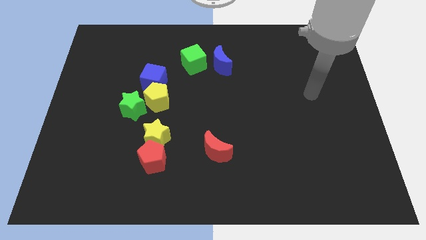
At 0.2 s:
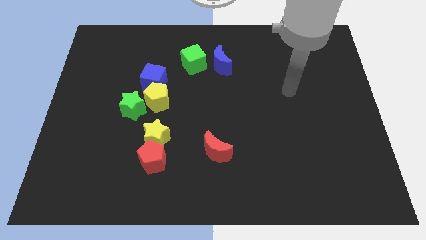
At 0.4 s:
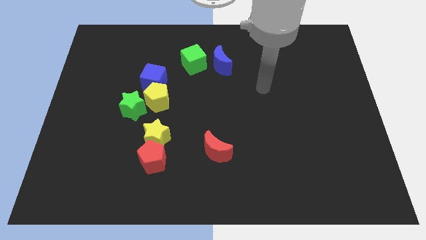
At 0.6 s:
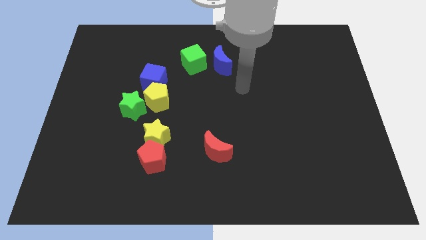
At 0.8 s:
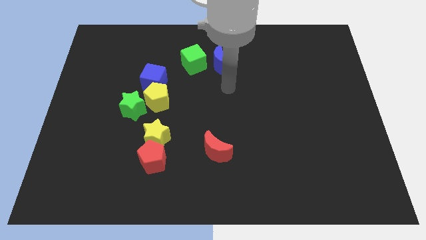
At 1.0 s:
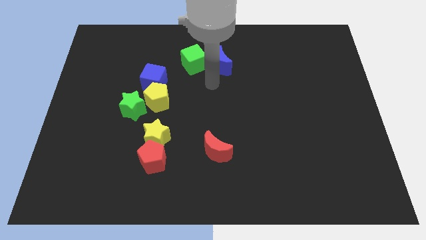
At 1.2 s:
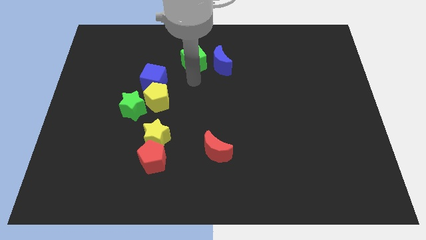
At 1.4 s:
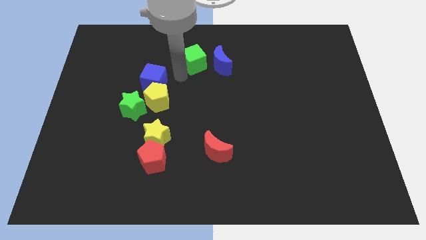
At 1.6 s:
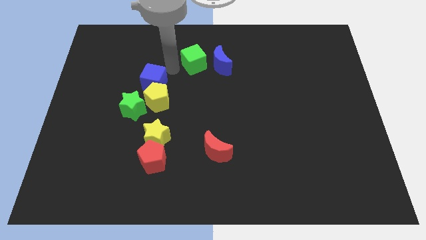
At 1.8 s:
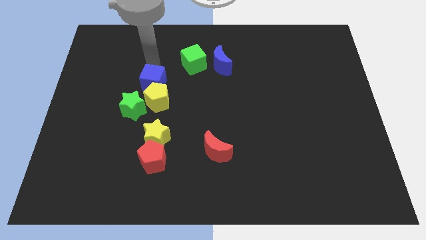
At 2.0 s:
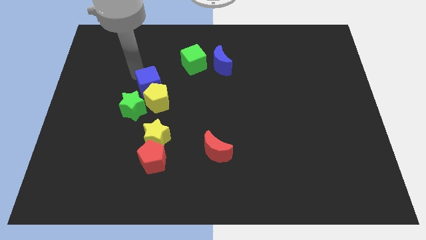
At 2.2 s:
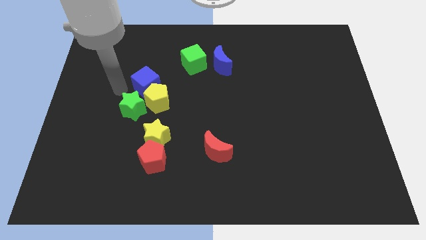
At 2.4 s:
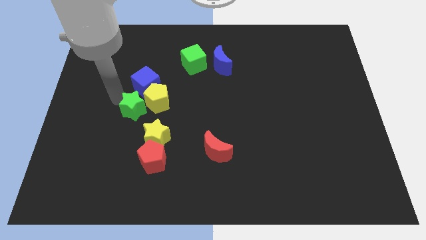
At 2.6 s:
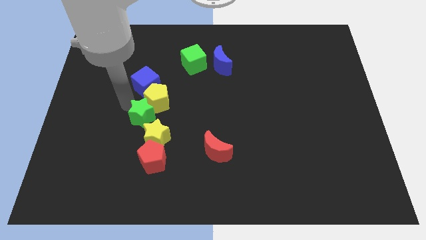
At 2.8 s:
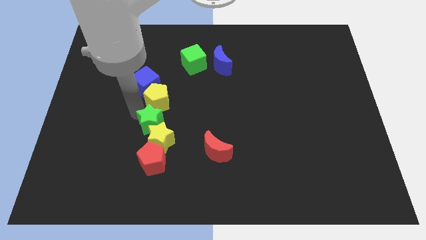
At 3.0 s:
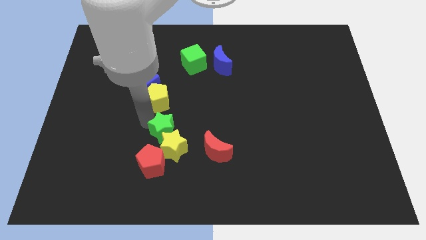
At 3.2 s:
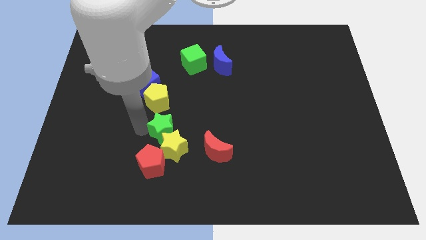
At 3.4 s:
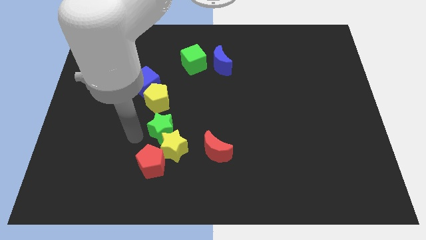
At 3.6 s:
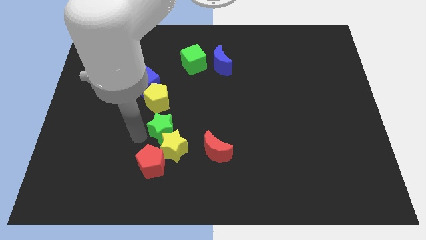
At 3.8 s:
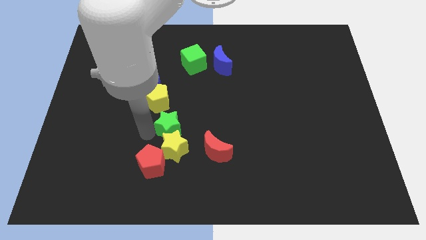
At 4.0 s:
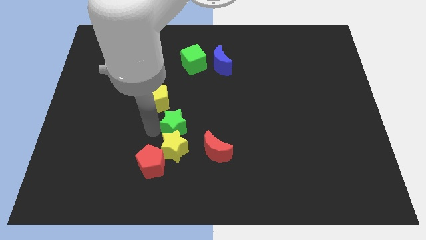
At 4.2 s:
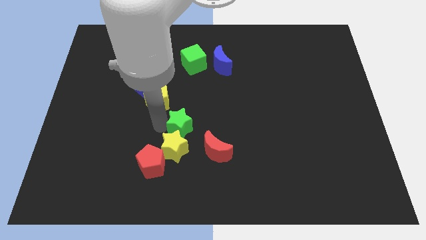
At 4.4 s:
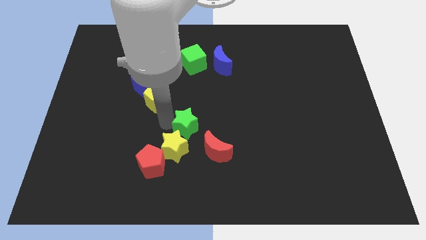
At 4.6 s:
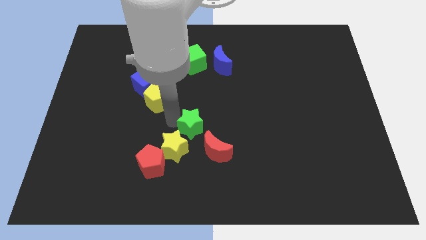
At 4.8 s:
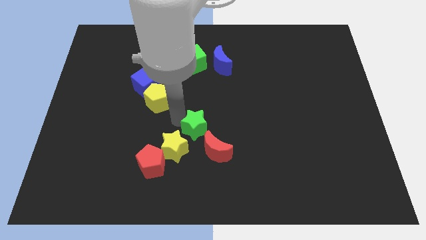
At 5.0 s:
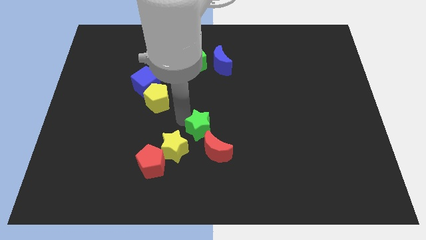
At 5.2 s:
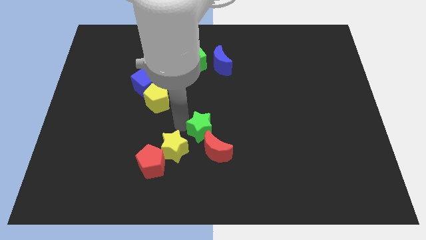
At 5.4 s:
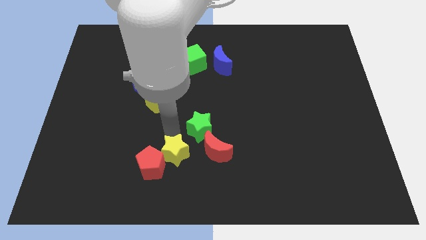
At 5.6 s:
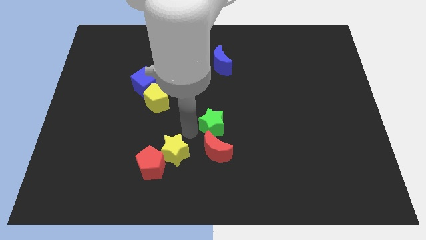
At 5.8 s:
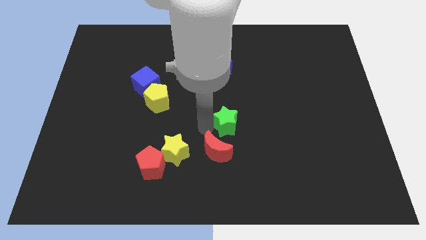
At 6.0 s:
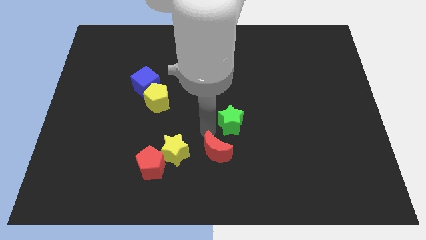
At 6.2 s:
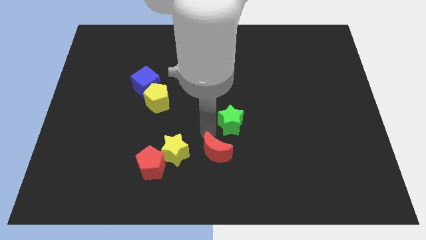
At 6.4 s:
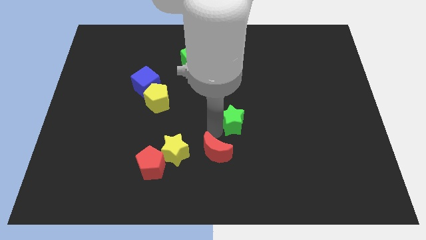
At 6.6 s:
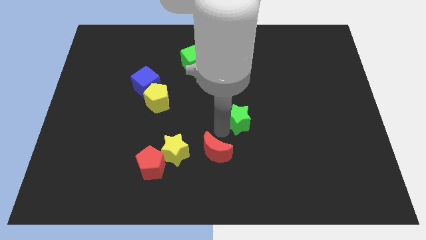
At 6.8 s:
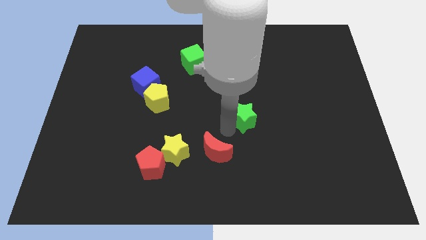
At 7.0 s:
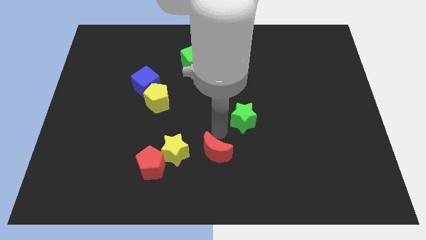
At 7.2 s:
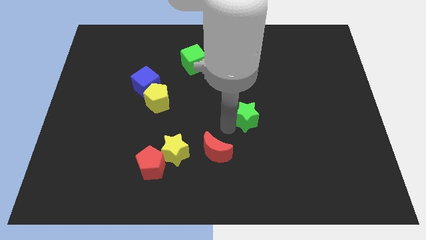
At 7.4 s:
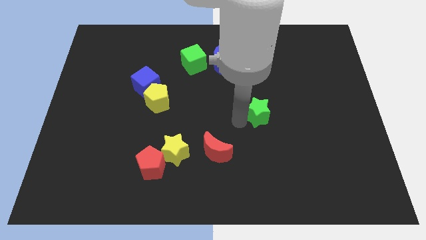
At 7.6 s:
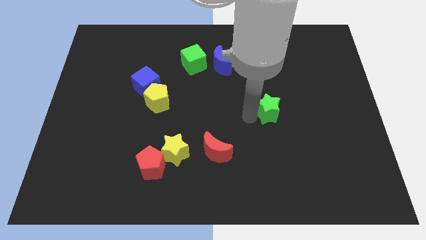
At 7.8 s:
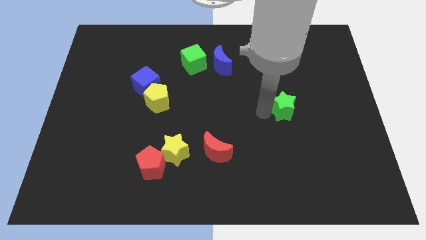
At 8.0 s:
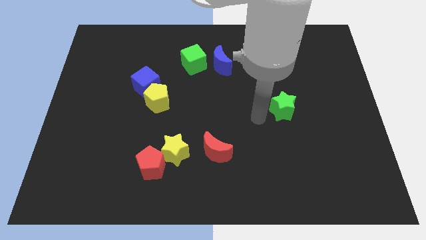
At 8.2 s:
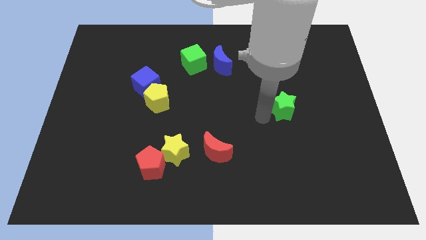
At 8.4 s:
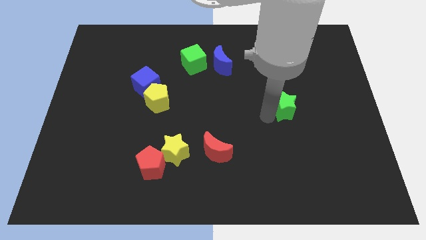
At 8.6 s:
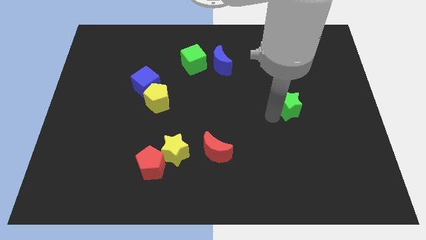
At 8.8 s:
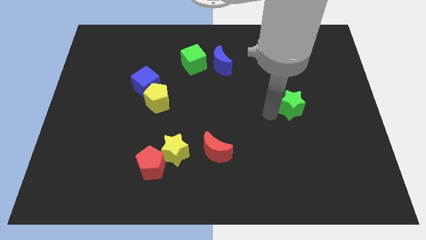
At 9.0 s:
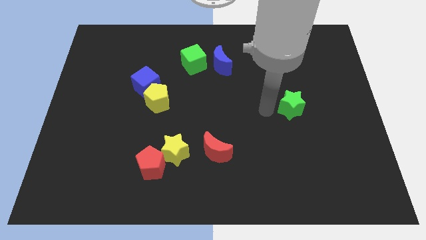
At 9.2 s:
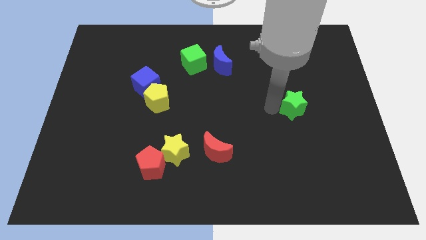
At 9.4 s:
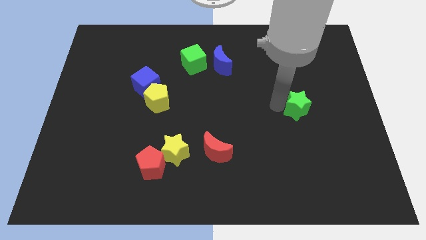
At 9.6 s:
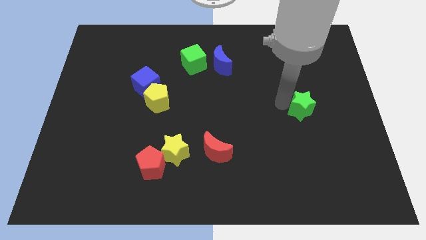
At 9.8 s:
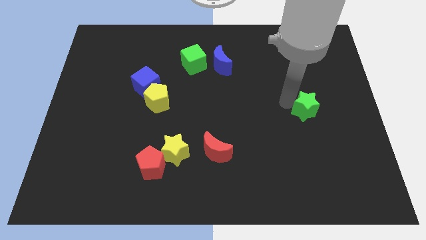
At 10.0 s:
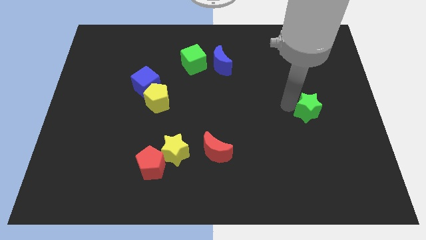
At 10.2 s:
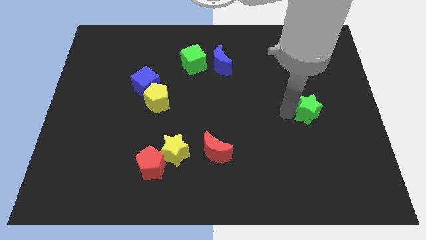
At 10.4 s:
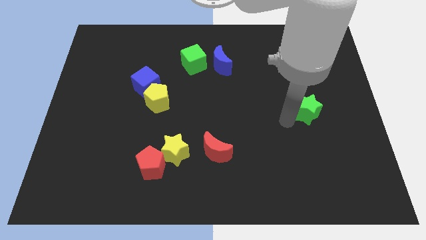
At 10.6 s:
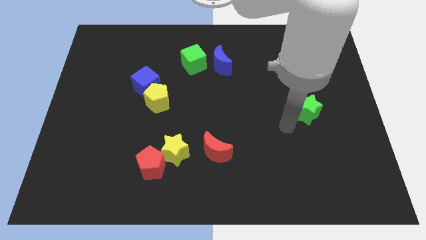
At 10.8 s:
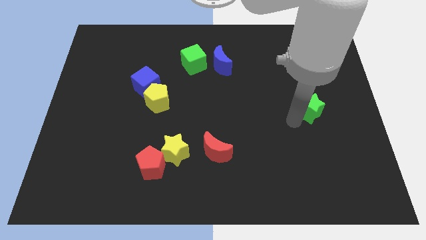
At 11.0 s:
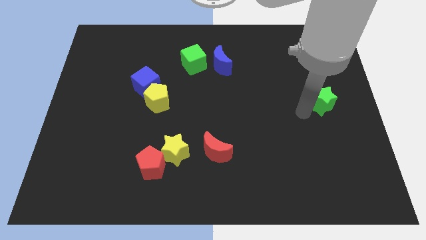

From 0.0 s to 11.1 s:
move the green star to the right side

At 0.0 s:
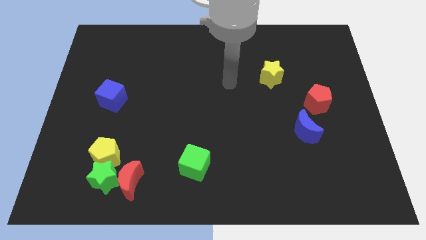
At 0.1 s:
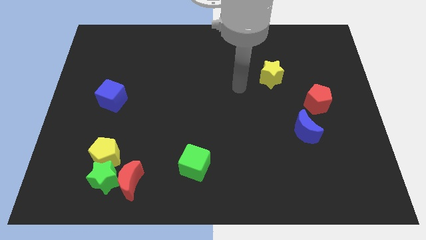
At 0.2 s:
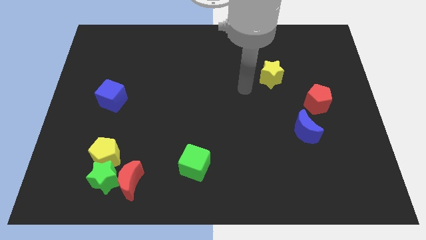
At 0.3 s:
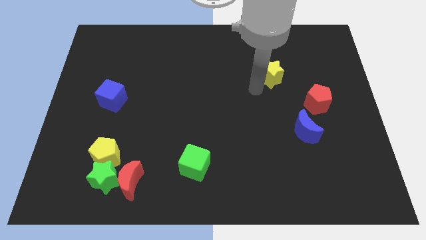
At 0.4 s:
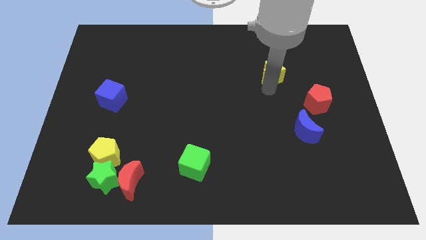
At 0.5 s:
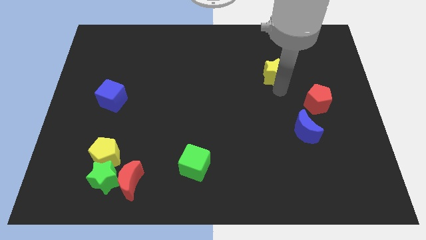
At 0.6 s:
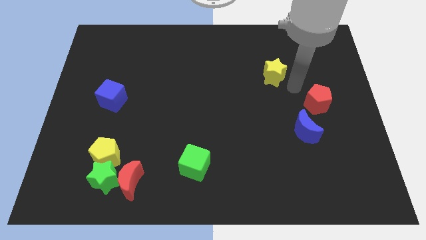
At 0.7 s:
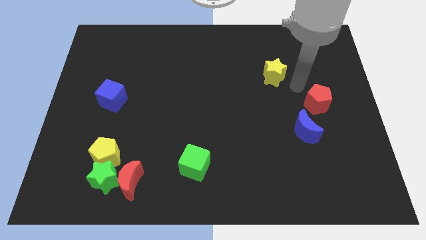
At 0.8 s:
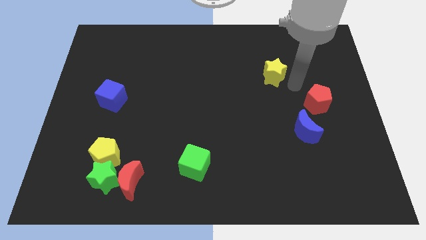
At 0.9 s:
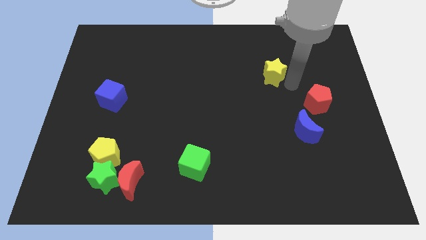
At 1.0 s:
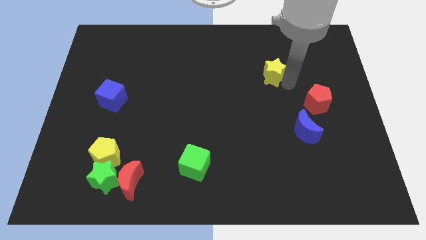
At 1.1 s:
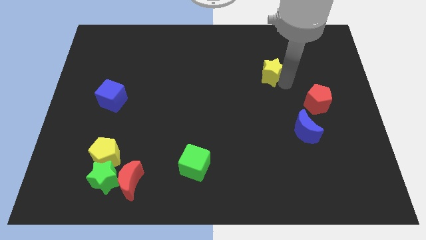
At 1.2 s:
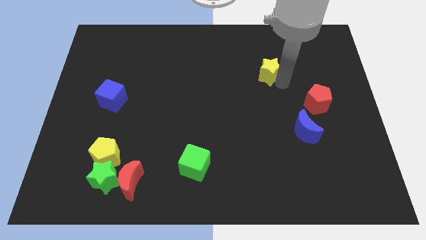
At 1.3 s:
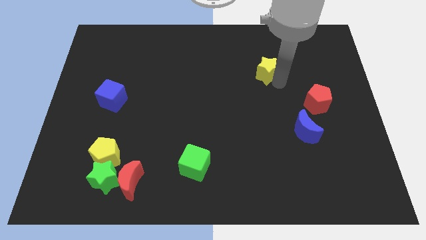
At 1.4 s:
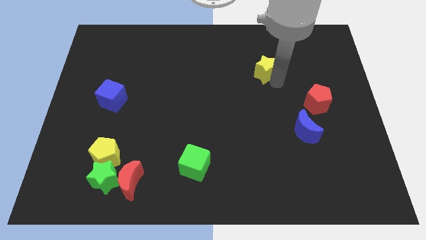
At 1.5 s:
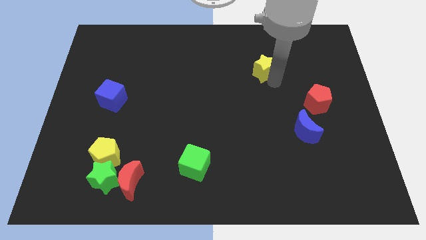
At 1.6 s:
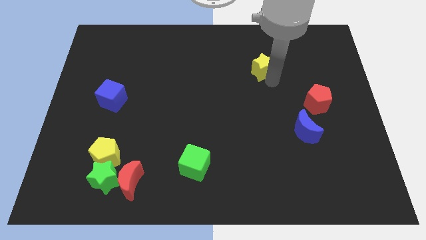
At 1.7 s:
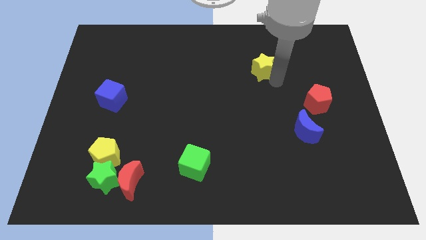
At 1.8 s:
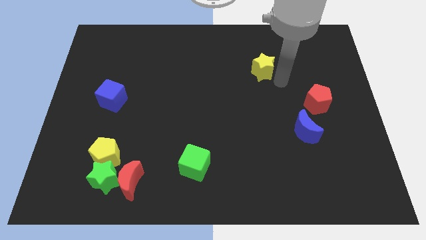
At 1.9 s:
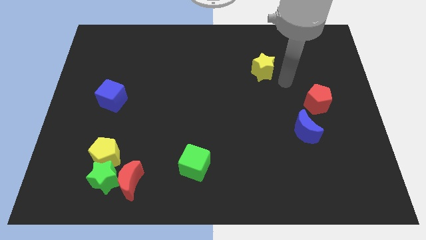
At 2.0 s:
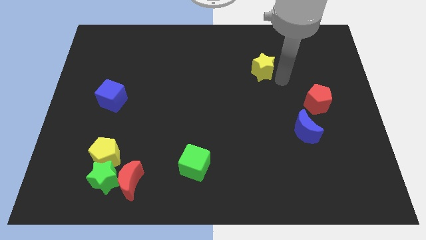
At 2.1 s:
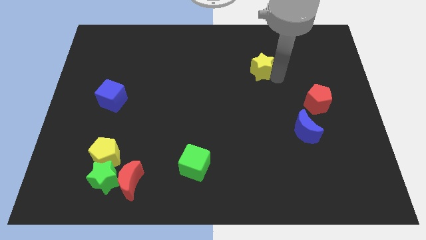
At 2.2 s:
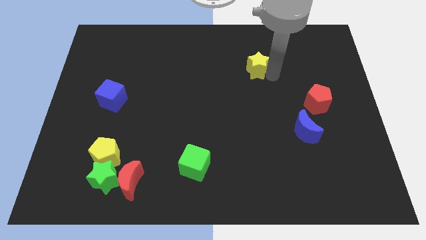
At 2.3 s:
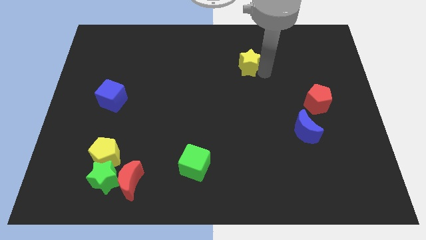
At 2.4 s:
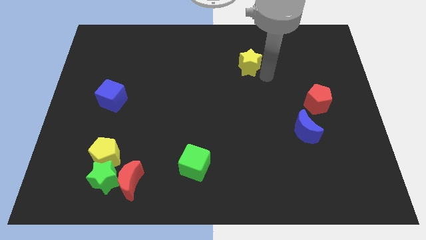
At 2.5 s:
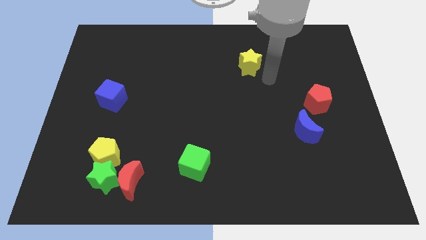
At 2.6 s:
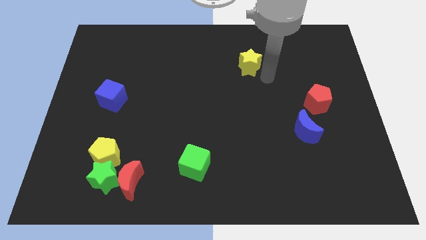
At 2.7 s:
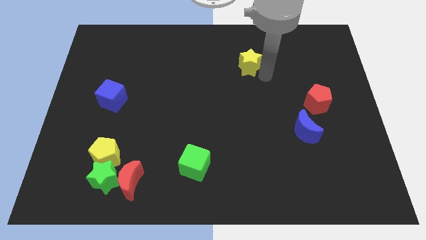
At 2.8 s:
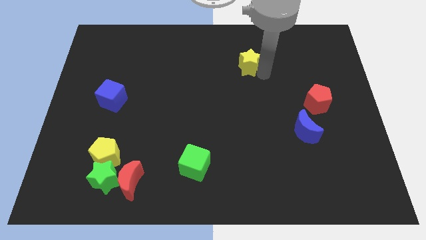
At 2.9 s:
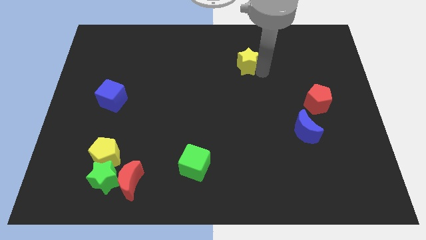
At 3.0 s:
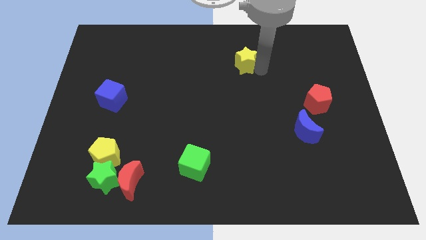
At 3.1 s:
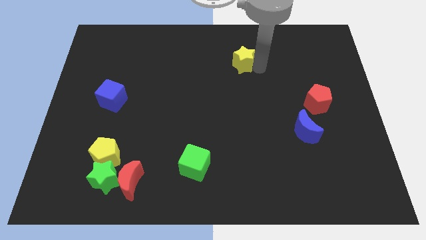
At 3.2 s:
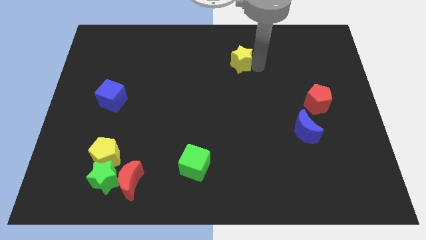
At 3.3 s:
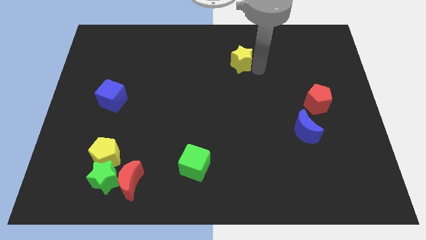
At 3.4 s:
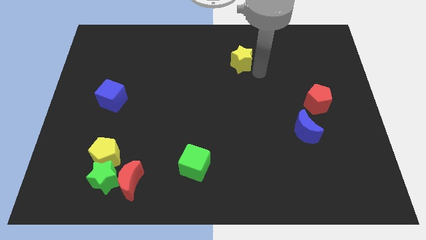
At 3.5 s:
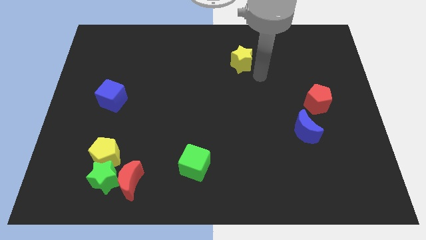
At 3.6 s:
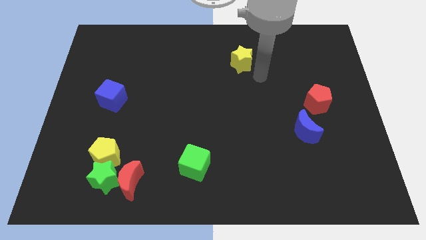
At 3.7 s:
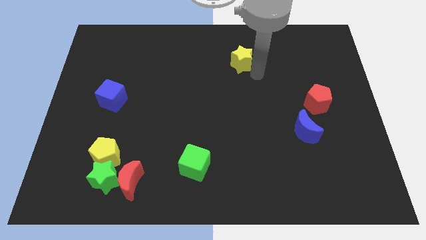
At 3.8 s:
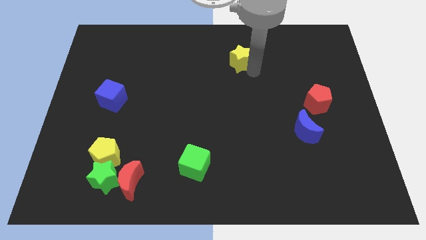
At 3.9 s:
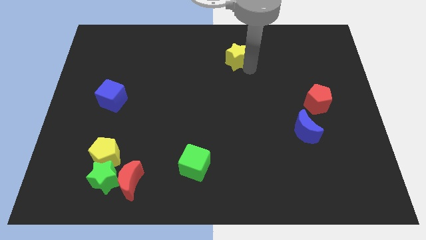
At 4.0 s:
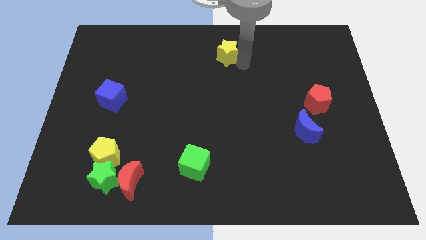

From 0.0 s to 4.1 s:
move the yellow star to the towards your base
